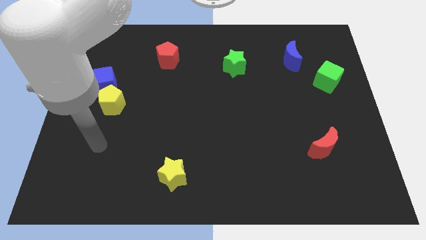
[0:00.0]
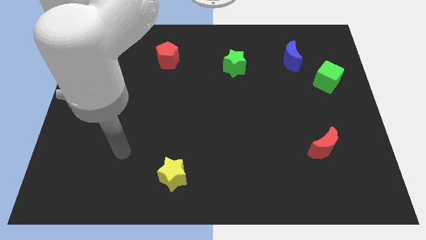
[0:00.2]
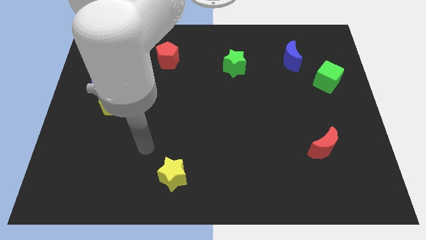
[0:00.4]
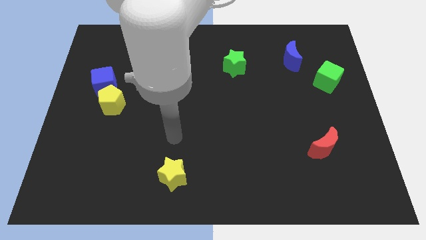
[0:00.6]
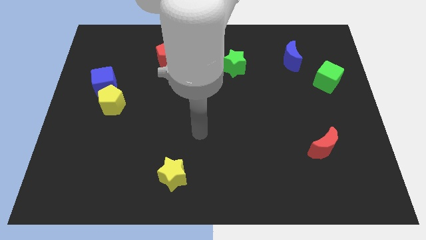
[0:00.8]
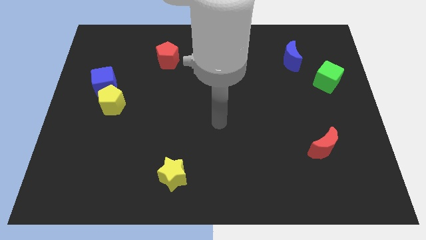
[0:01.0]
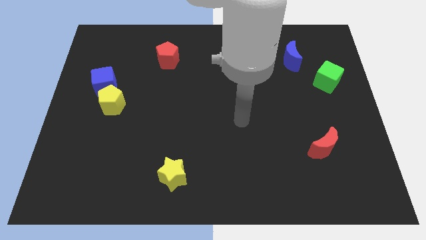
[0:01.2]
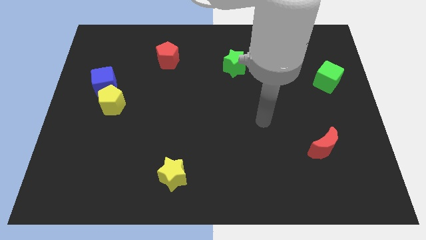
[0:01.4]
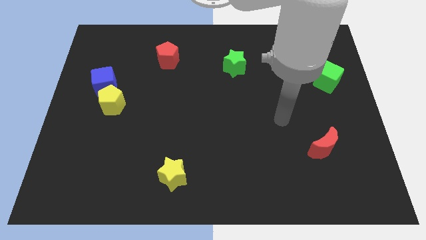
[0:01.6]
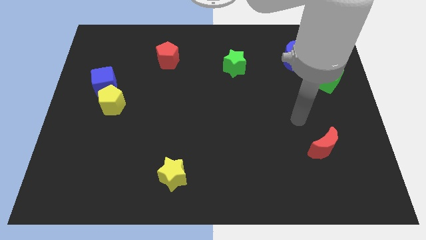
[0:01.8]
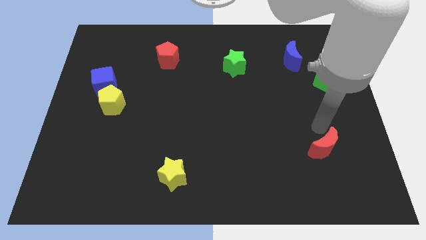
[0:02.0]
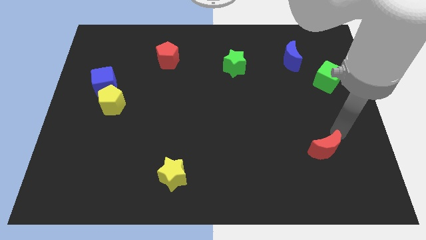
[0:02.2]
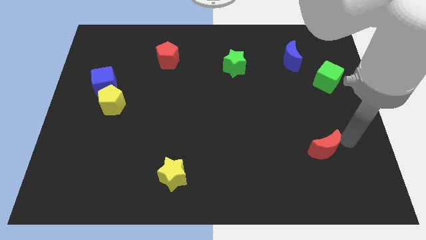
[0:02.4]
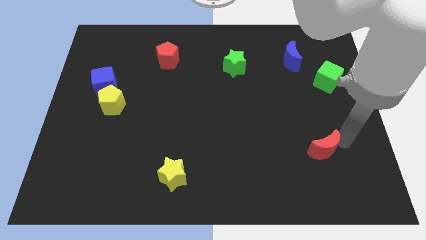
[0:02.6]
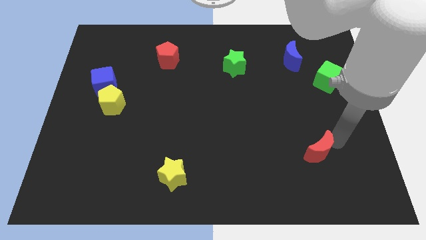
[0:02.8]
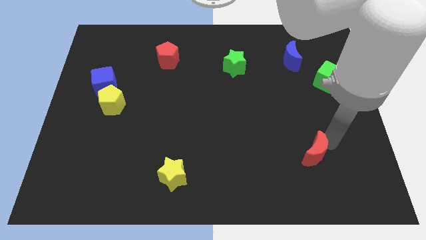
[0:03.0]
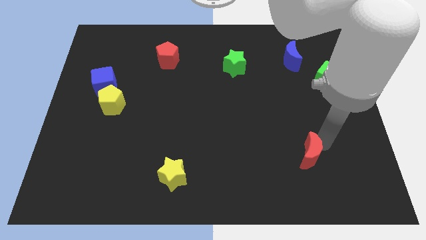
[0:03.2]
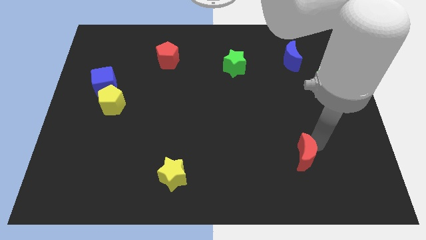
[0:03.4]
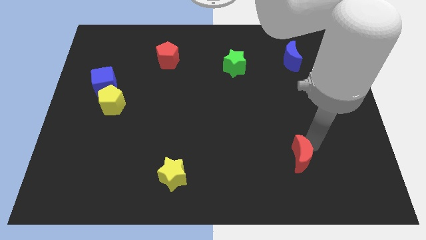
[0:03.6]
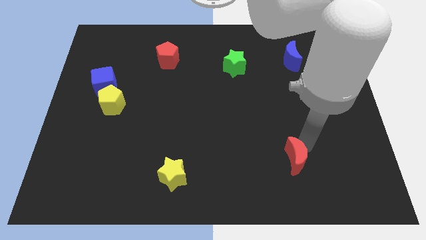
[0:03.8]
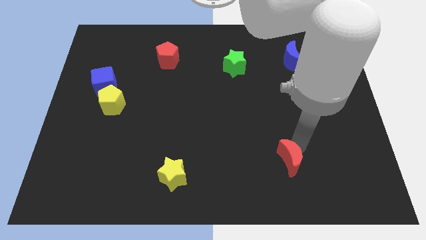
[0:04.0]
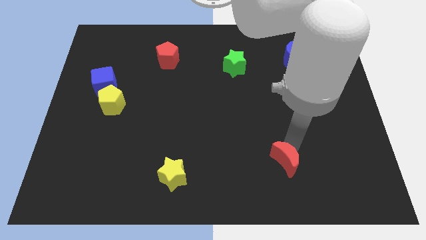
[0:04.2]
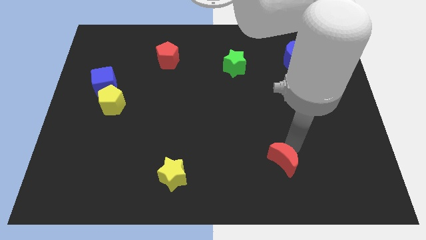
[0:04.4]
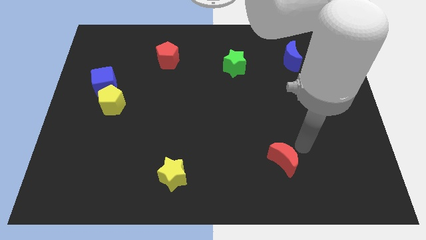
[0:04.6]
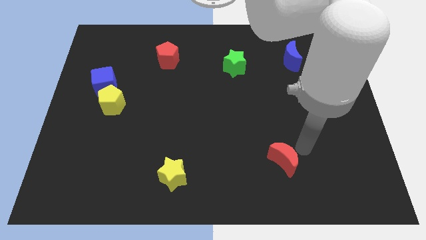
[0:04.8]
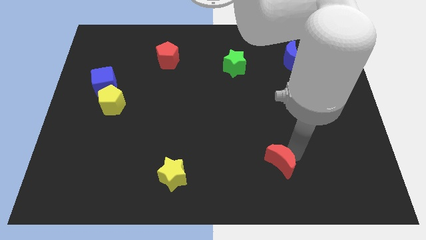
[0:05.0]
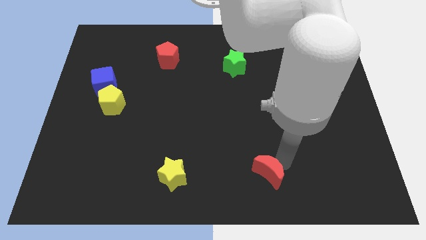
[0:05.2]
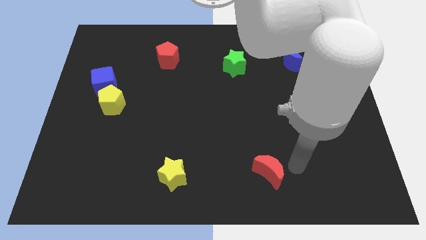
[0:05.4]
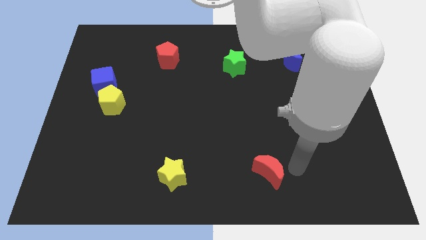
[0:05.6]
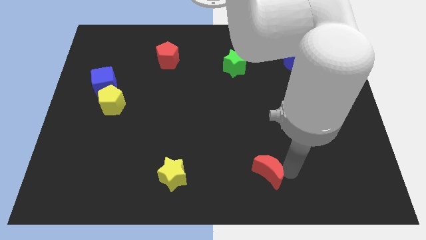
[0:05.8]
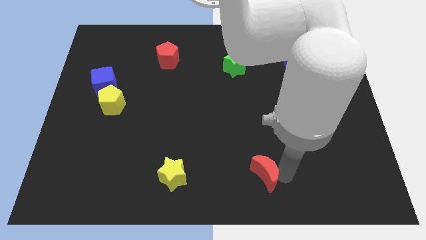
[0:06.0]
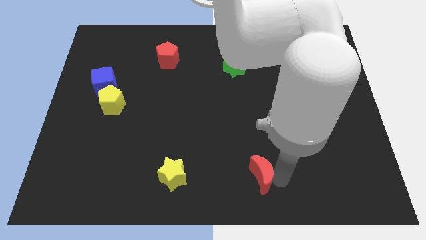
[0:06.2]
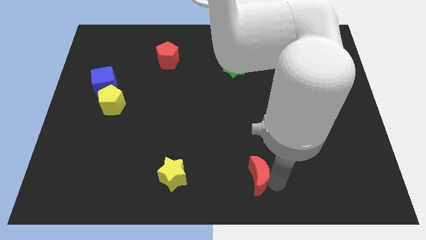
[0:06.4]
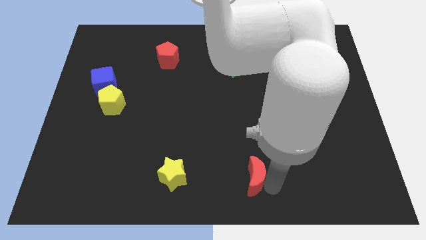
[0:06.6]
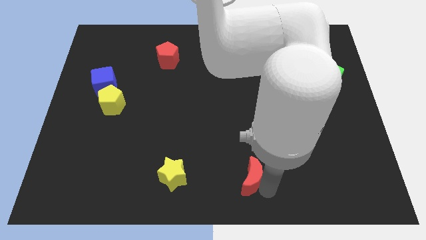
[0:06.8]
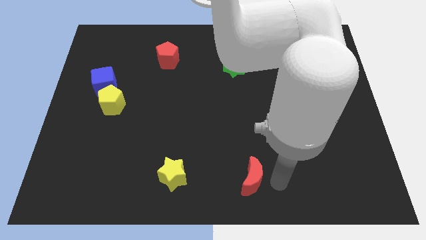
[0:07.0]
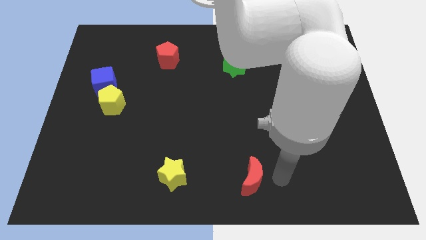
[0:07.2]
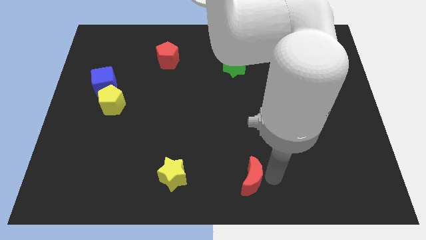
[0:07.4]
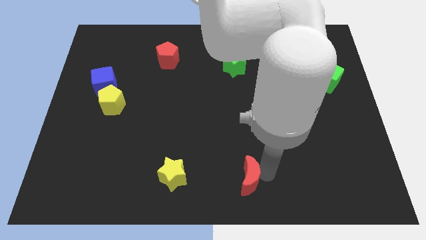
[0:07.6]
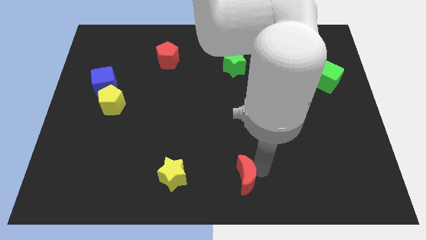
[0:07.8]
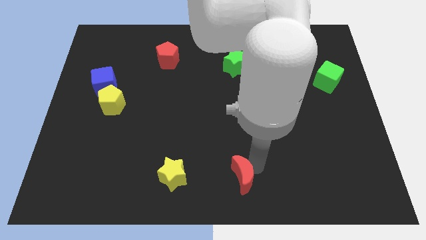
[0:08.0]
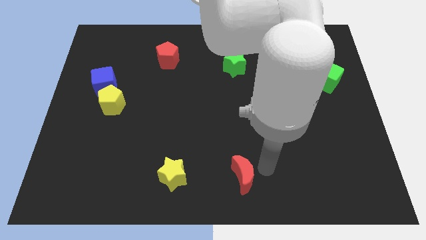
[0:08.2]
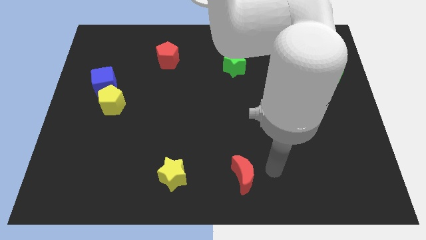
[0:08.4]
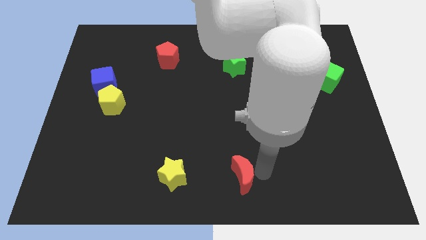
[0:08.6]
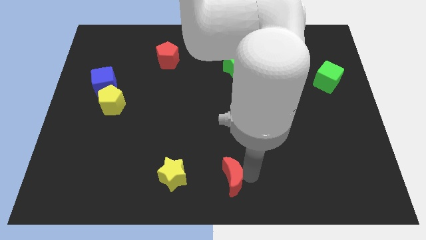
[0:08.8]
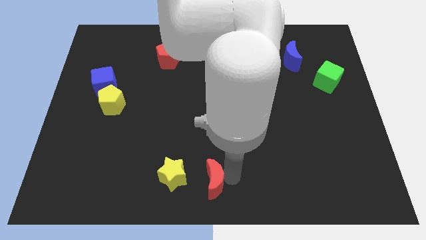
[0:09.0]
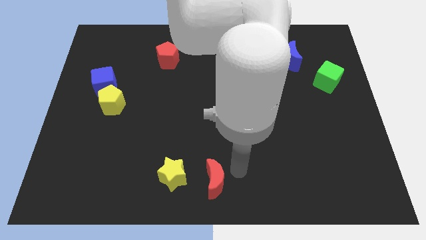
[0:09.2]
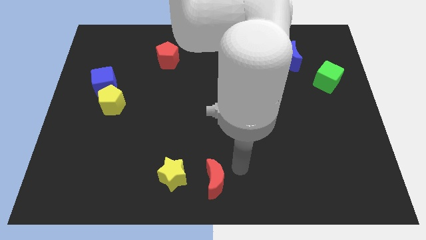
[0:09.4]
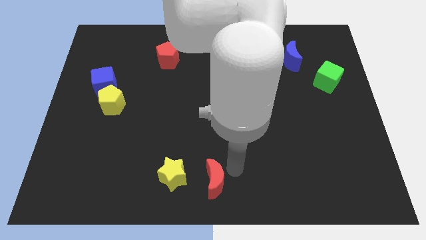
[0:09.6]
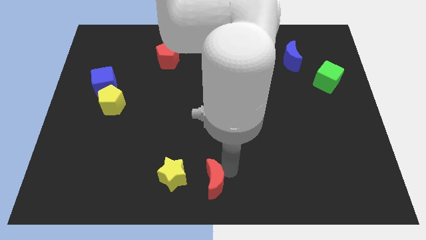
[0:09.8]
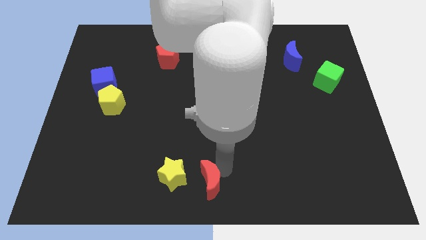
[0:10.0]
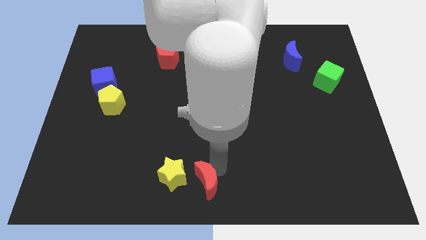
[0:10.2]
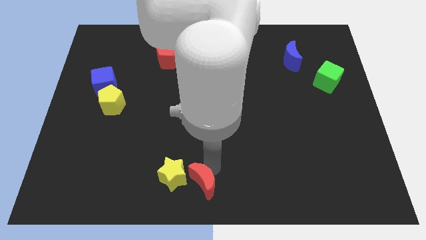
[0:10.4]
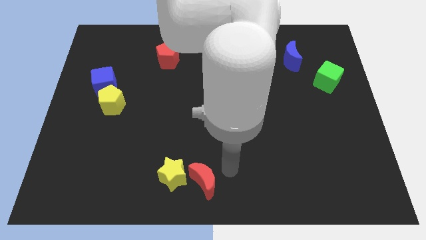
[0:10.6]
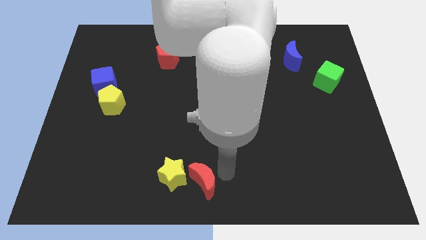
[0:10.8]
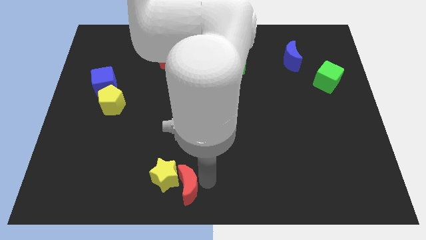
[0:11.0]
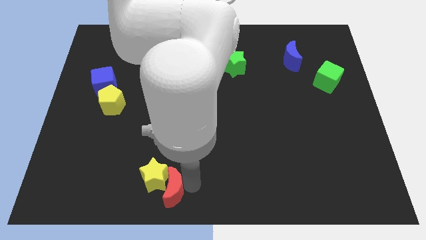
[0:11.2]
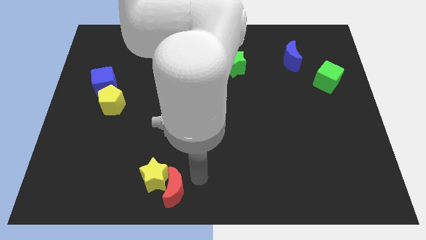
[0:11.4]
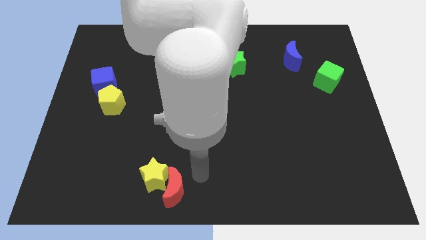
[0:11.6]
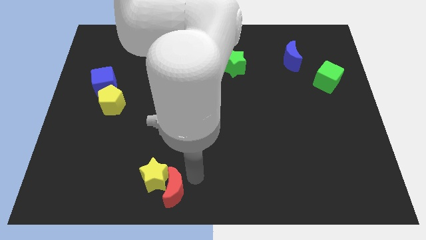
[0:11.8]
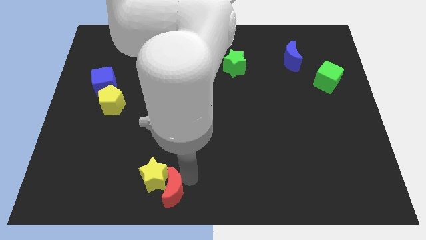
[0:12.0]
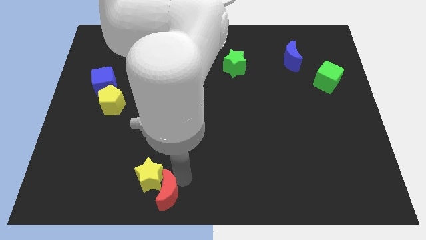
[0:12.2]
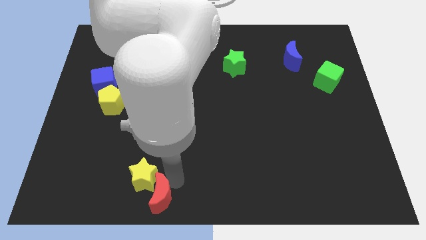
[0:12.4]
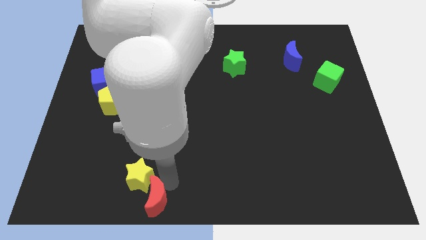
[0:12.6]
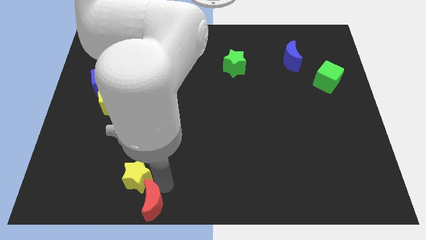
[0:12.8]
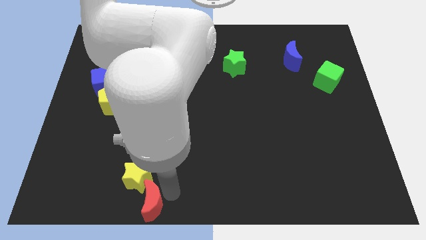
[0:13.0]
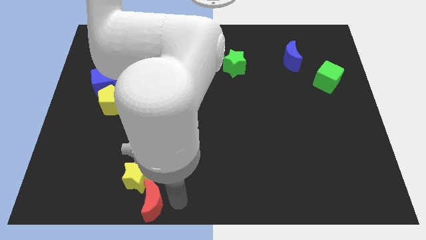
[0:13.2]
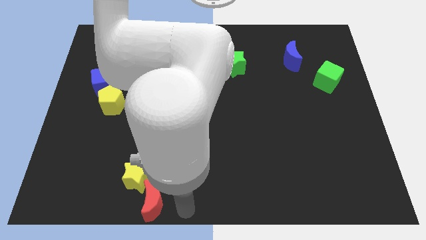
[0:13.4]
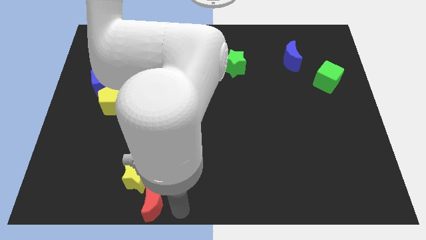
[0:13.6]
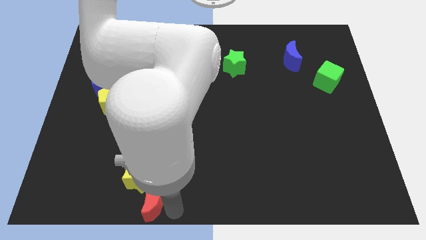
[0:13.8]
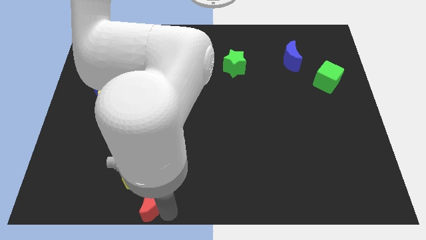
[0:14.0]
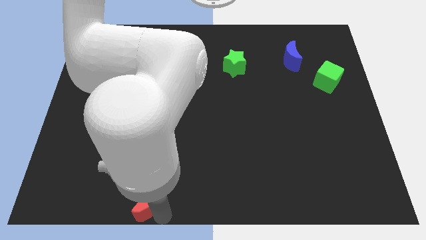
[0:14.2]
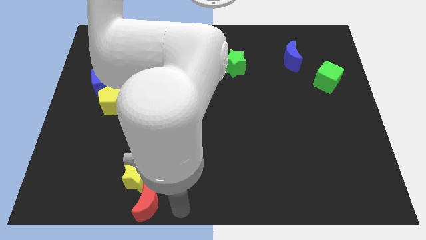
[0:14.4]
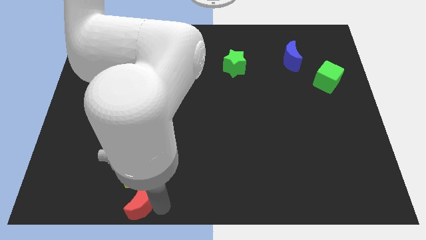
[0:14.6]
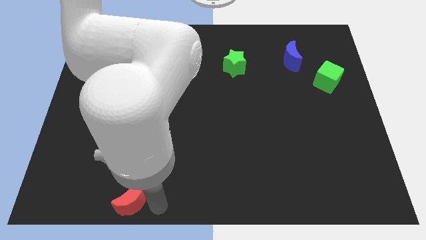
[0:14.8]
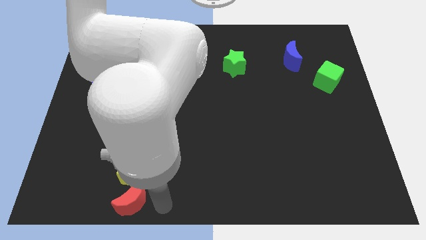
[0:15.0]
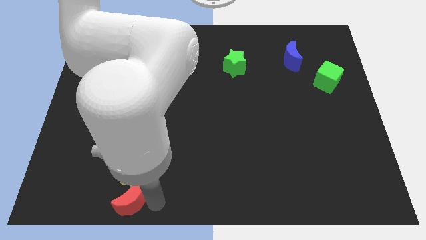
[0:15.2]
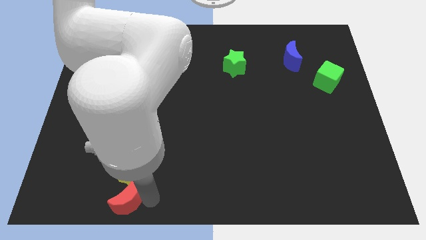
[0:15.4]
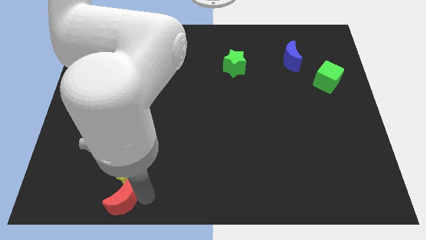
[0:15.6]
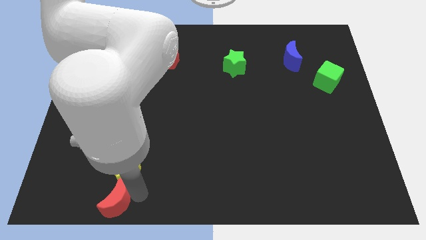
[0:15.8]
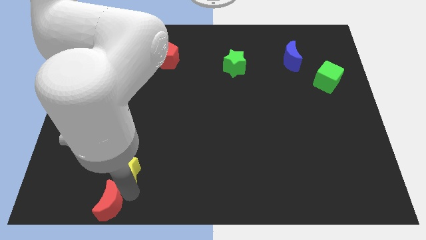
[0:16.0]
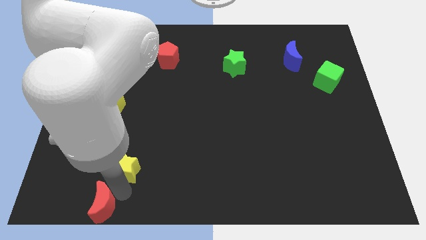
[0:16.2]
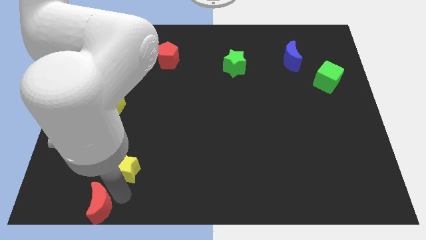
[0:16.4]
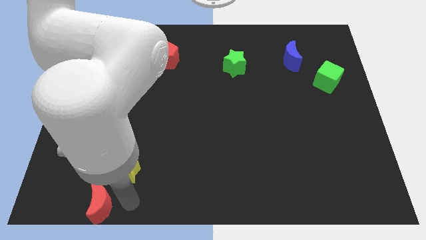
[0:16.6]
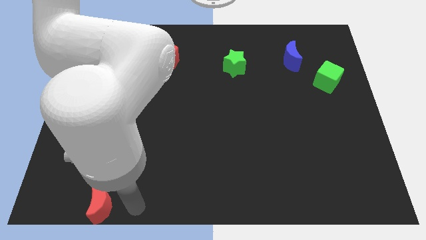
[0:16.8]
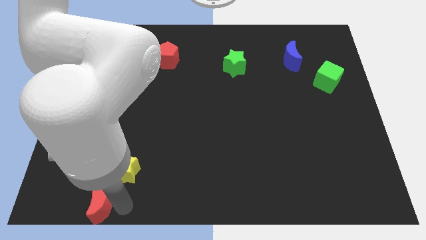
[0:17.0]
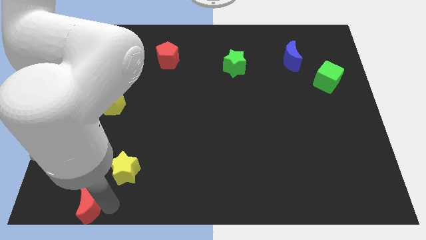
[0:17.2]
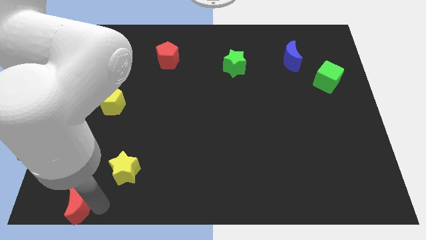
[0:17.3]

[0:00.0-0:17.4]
slide the red moon to the lower left corner
